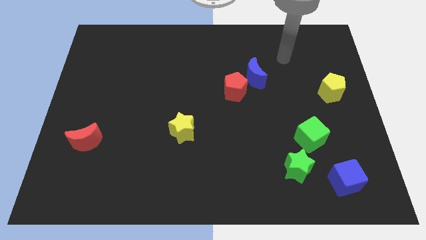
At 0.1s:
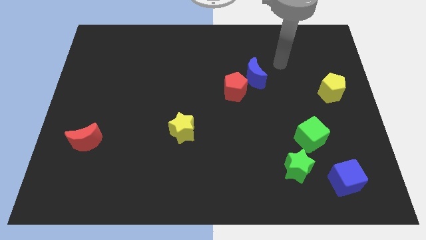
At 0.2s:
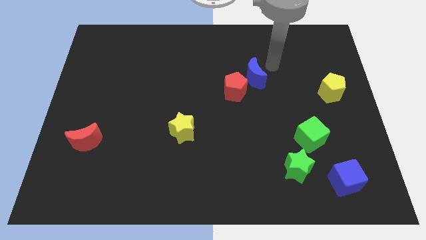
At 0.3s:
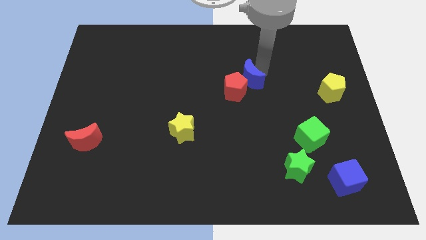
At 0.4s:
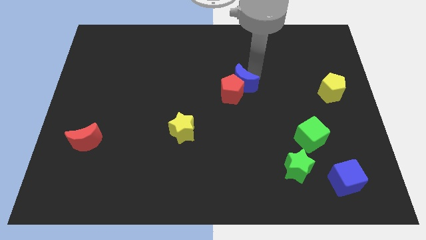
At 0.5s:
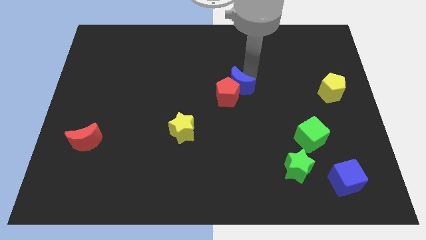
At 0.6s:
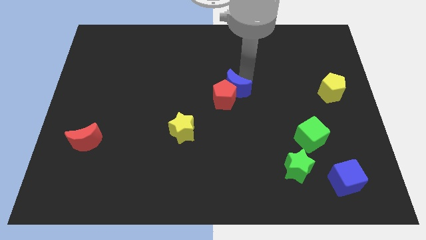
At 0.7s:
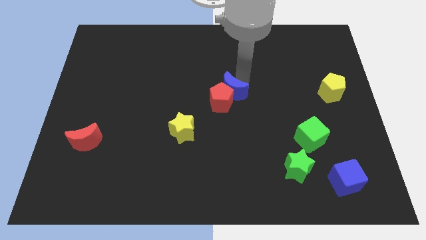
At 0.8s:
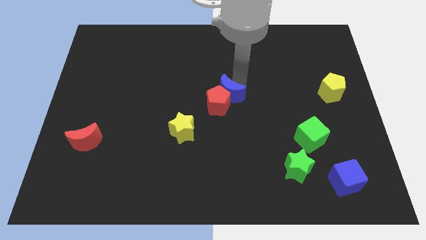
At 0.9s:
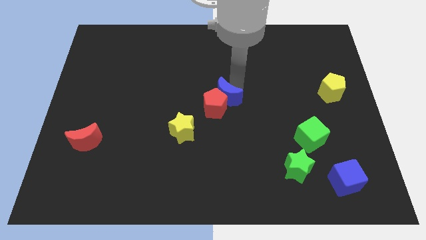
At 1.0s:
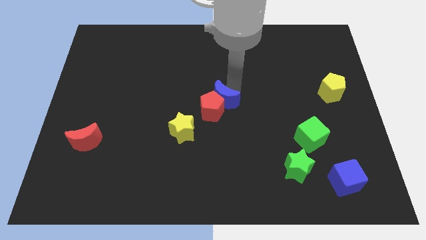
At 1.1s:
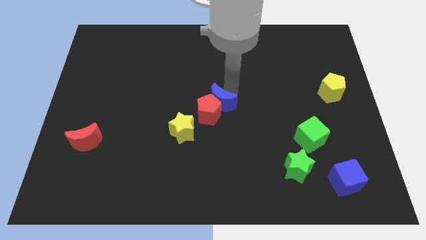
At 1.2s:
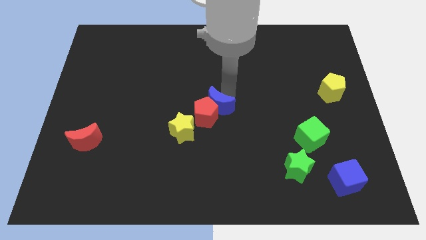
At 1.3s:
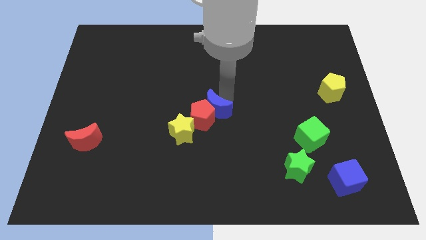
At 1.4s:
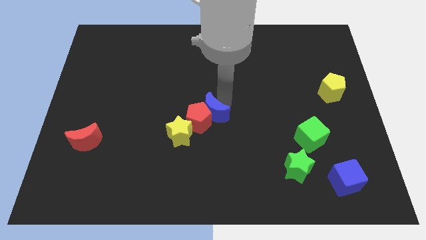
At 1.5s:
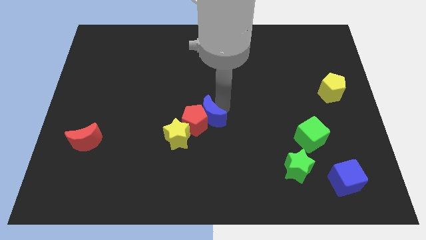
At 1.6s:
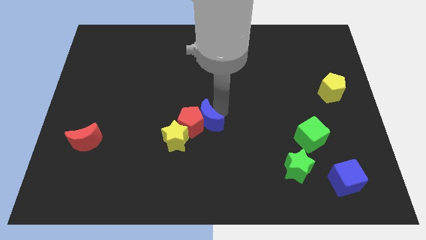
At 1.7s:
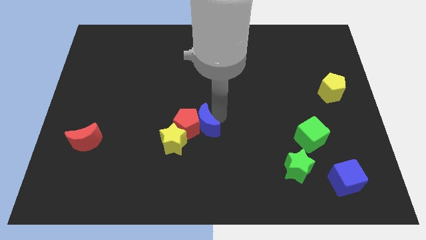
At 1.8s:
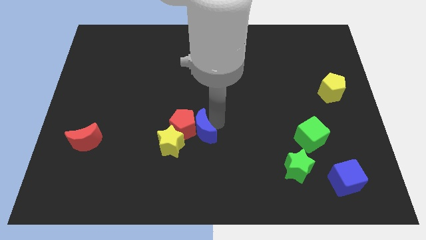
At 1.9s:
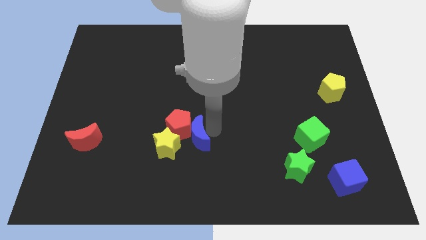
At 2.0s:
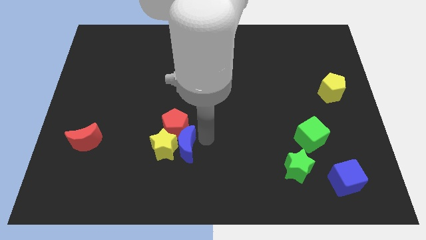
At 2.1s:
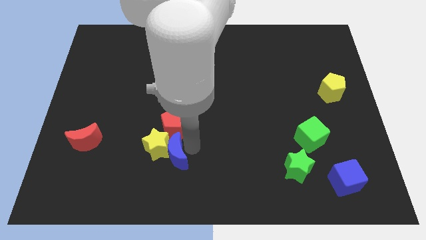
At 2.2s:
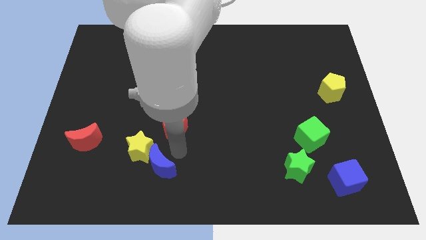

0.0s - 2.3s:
separate the red pentagon from the blue moon

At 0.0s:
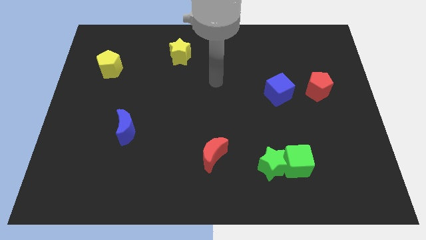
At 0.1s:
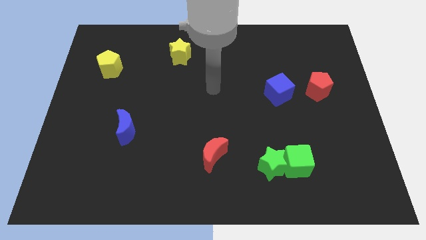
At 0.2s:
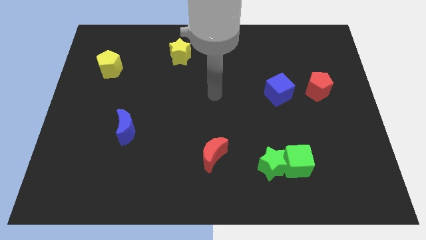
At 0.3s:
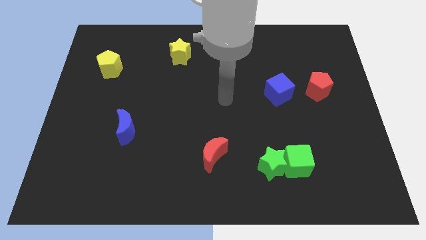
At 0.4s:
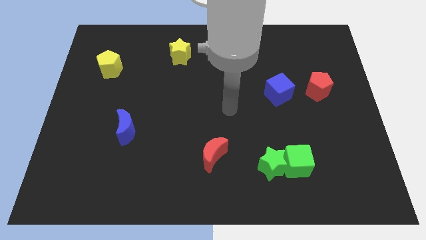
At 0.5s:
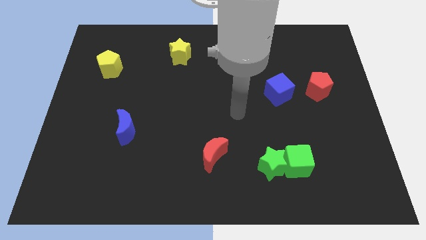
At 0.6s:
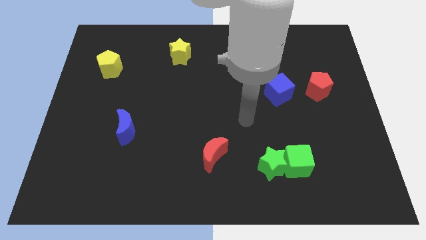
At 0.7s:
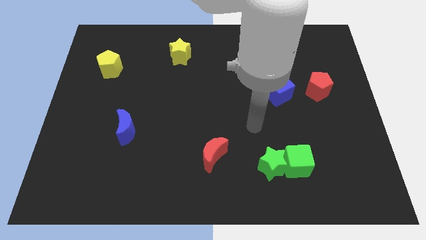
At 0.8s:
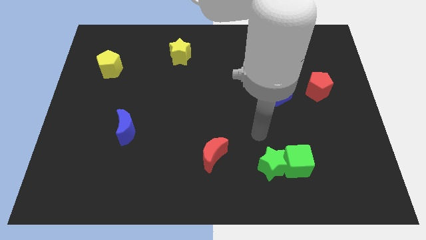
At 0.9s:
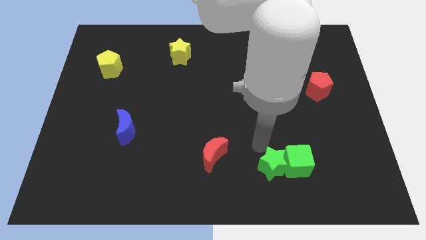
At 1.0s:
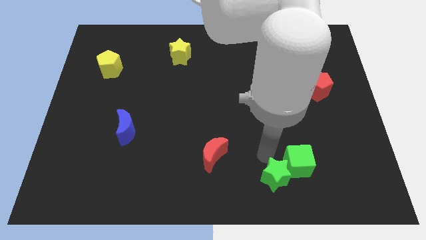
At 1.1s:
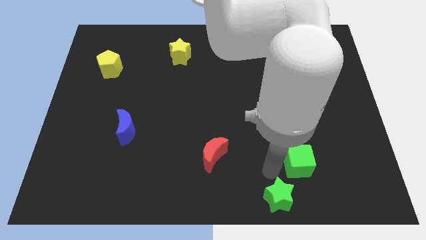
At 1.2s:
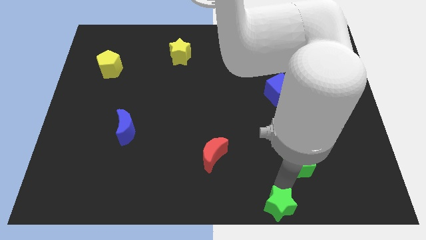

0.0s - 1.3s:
separate the green cube from the green star

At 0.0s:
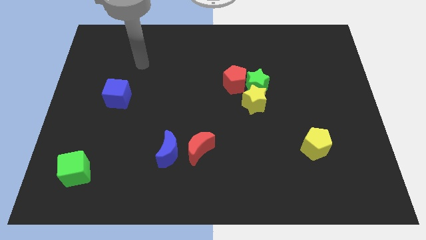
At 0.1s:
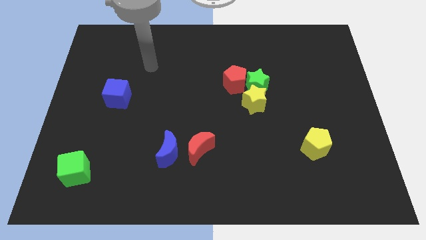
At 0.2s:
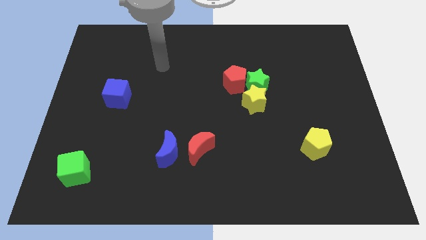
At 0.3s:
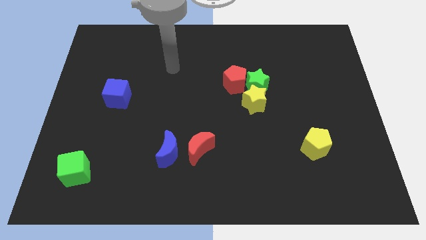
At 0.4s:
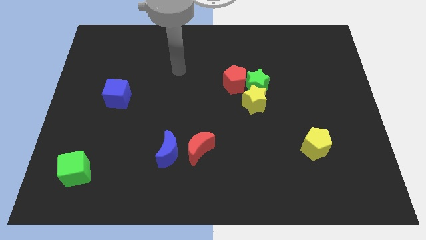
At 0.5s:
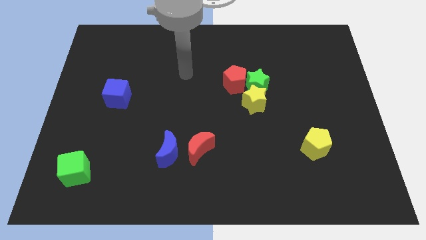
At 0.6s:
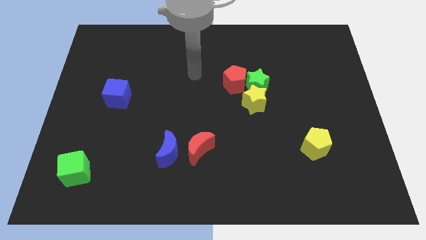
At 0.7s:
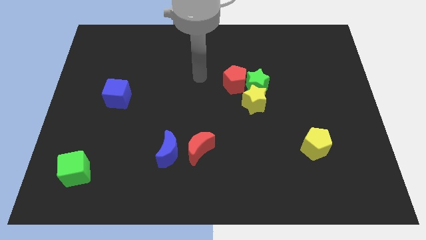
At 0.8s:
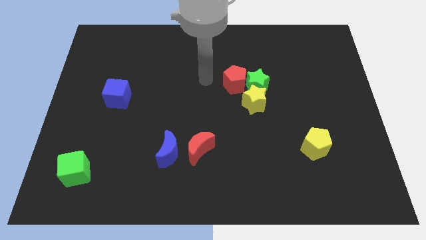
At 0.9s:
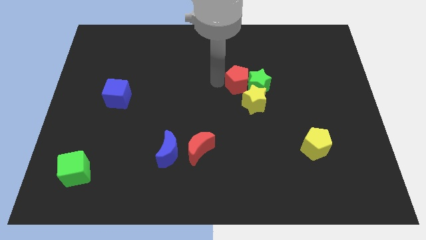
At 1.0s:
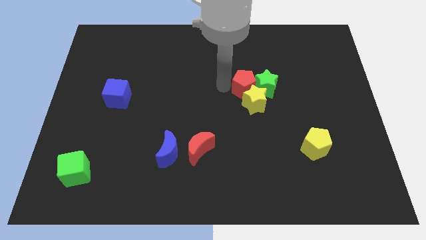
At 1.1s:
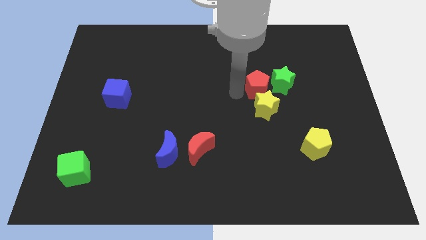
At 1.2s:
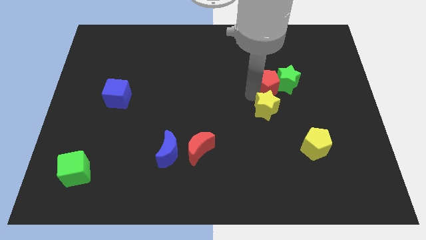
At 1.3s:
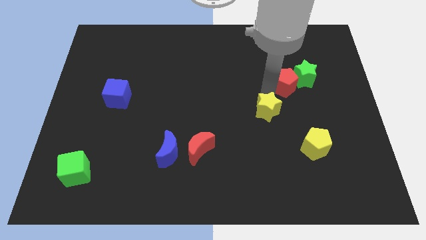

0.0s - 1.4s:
separate the green star from the yellow star and red pentagon

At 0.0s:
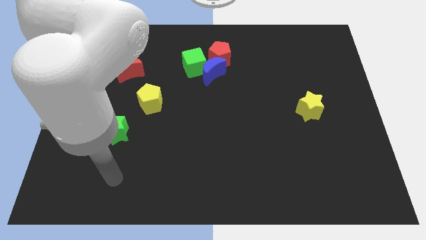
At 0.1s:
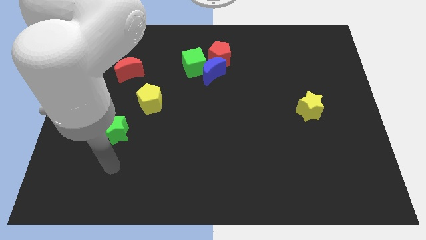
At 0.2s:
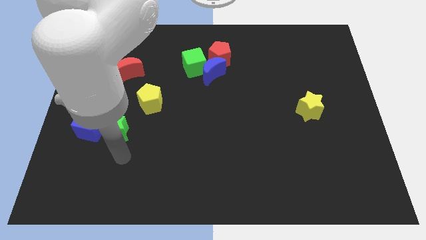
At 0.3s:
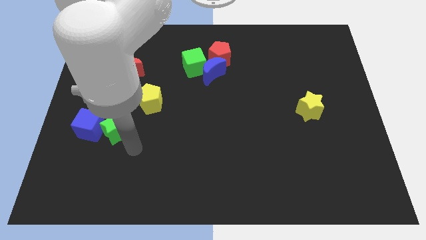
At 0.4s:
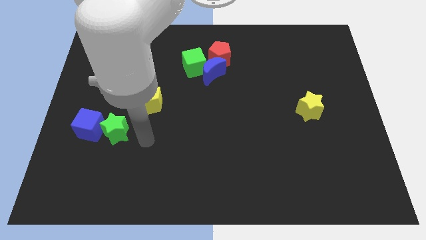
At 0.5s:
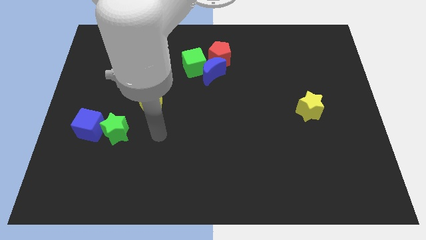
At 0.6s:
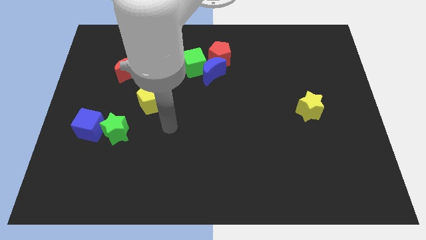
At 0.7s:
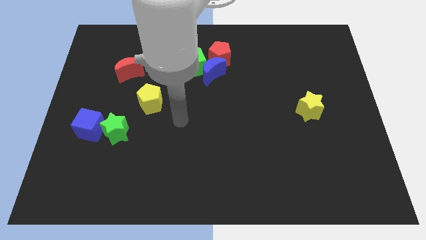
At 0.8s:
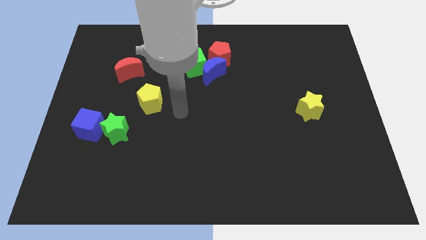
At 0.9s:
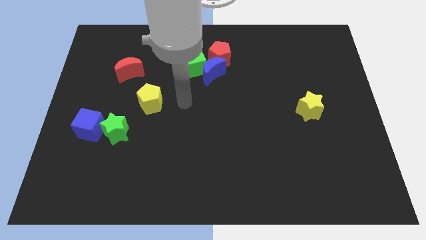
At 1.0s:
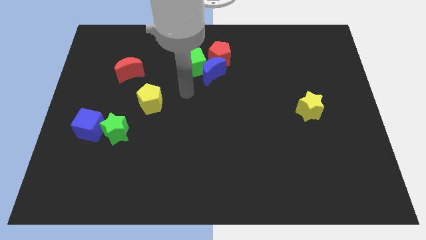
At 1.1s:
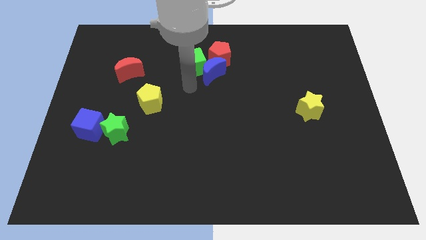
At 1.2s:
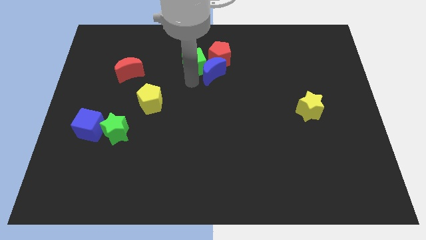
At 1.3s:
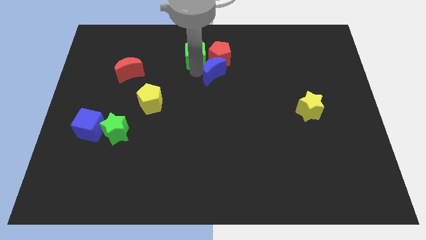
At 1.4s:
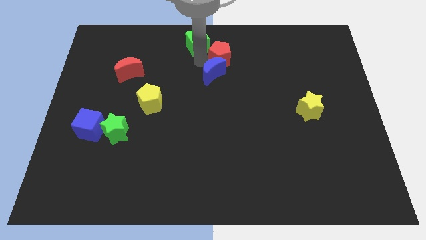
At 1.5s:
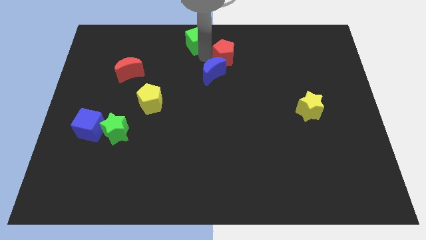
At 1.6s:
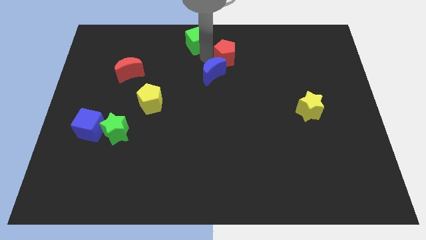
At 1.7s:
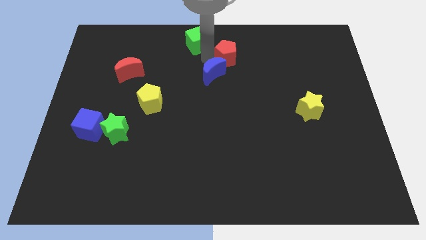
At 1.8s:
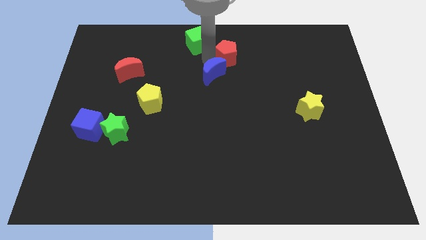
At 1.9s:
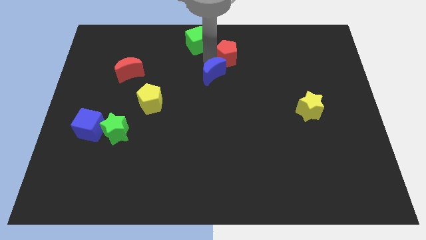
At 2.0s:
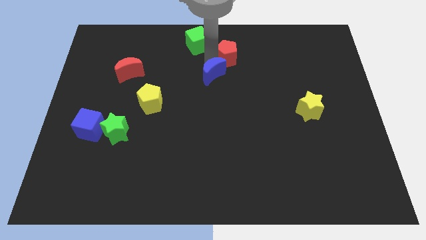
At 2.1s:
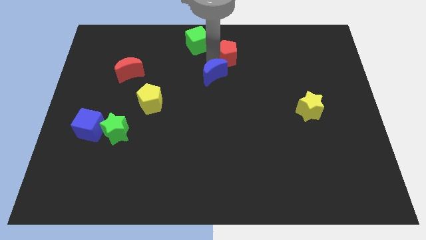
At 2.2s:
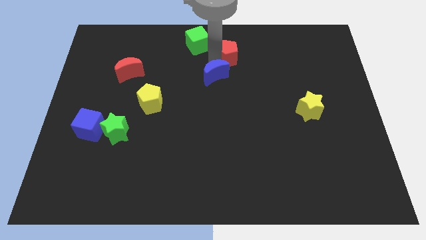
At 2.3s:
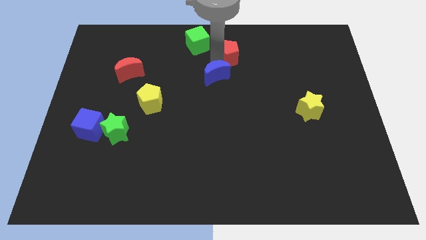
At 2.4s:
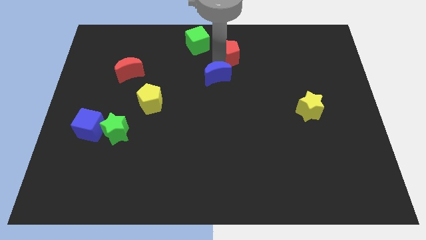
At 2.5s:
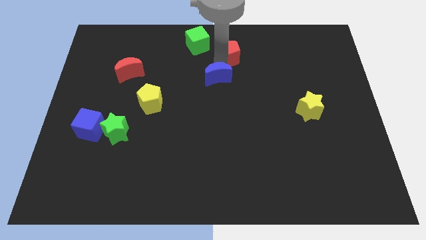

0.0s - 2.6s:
separate the blue moon from the green cube and red pentagon

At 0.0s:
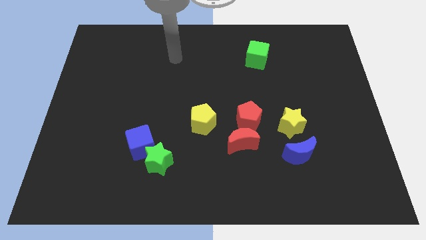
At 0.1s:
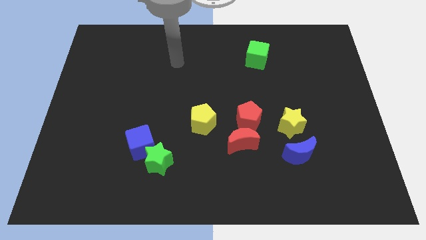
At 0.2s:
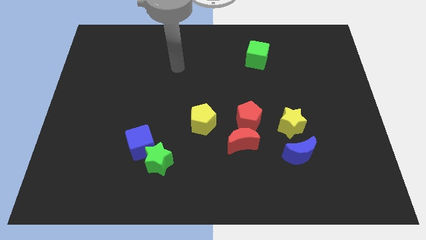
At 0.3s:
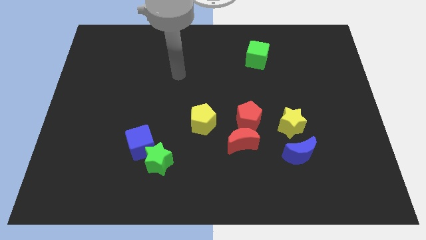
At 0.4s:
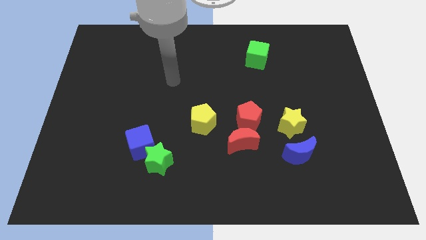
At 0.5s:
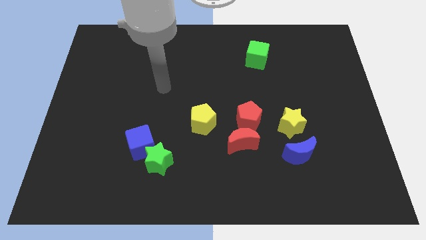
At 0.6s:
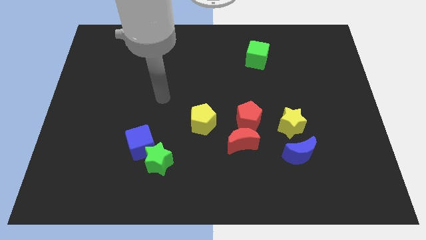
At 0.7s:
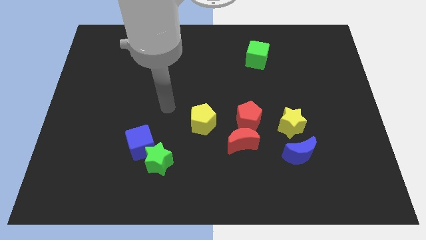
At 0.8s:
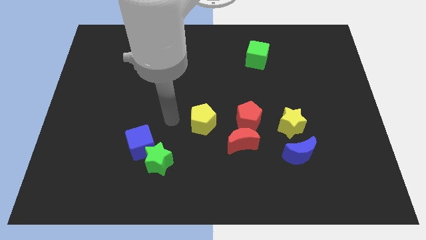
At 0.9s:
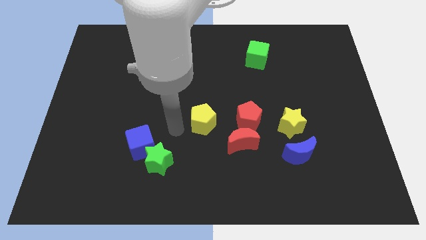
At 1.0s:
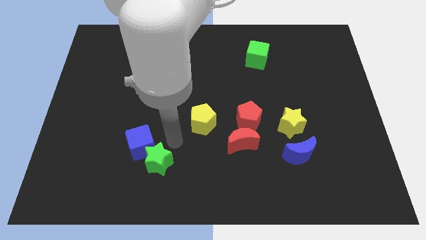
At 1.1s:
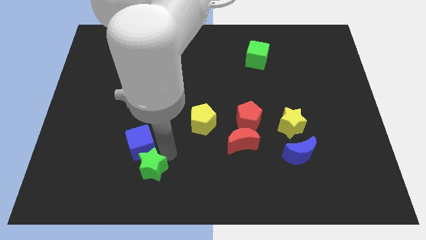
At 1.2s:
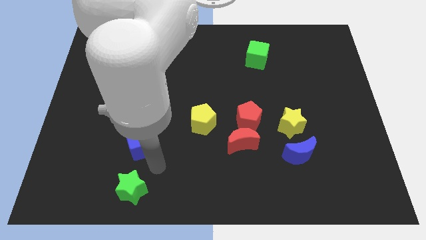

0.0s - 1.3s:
separate the blue cube from the green star

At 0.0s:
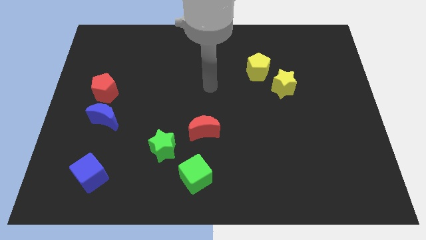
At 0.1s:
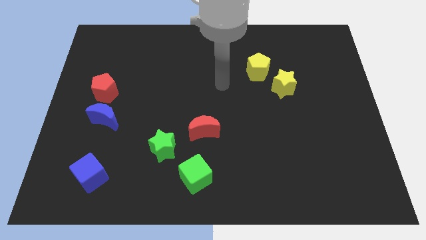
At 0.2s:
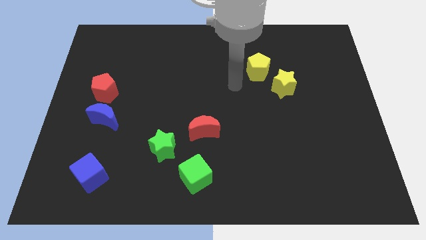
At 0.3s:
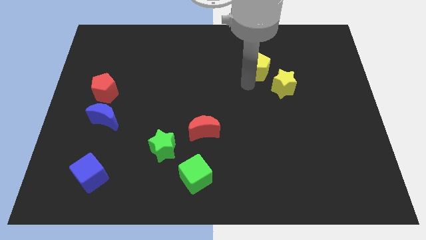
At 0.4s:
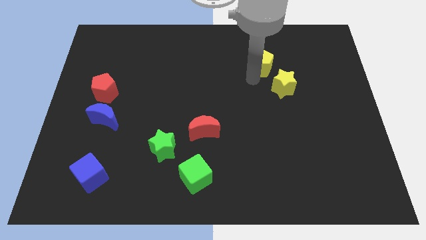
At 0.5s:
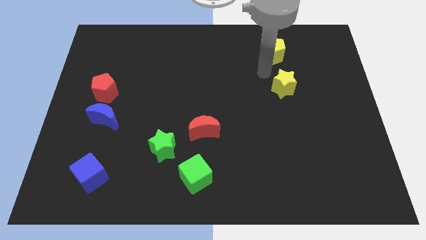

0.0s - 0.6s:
separate the yellow star from the yellow pentagon
